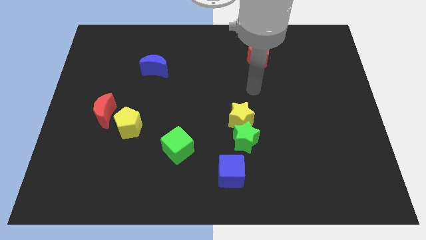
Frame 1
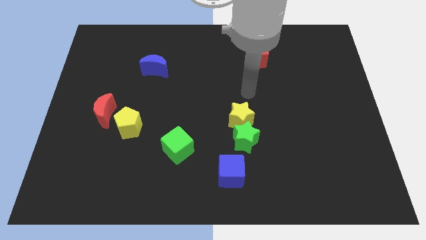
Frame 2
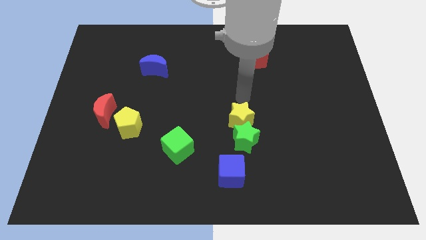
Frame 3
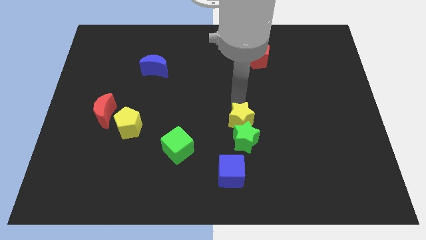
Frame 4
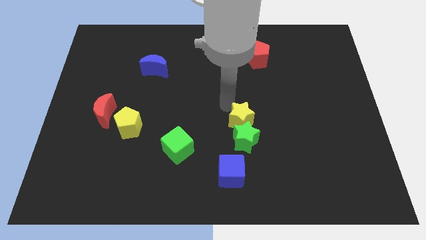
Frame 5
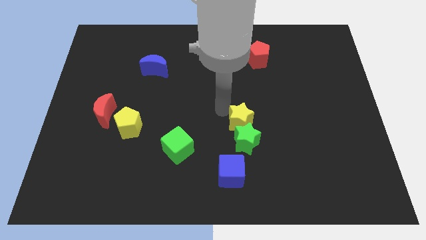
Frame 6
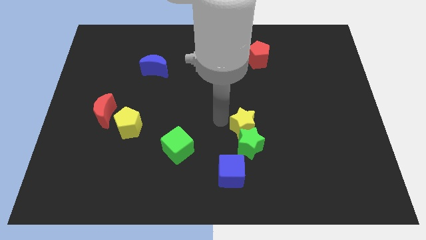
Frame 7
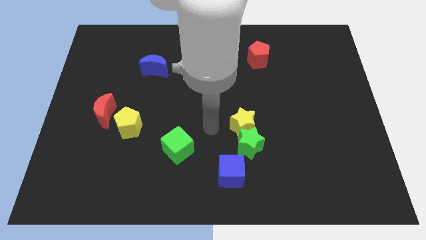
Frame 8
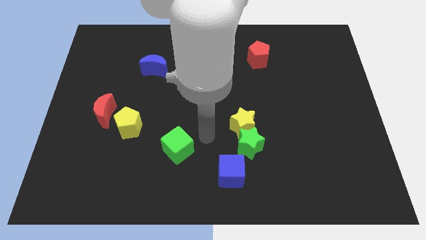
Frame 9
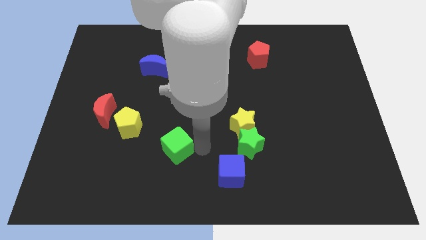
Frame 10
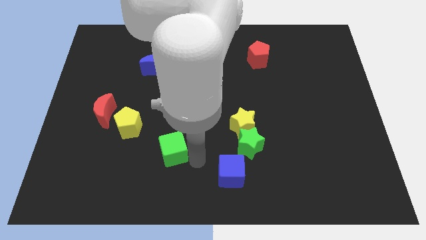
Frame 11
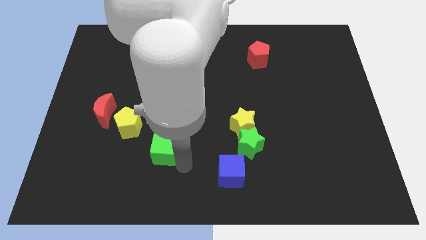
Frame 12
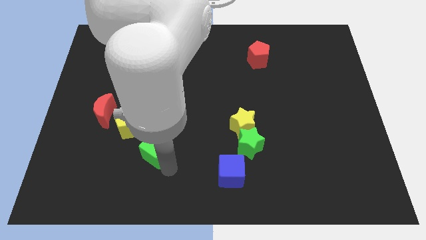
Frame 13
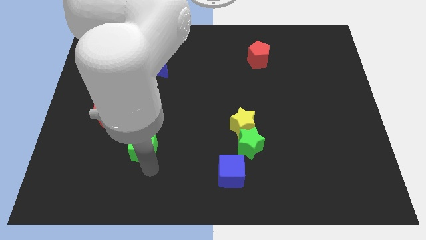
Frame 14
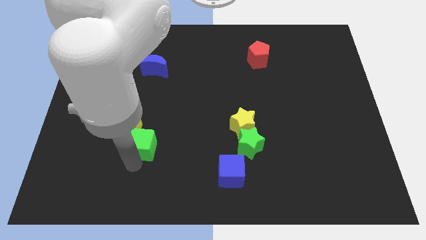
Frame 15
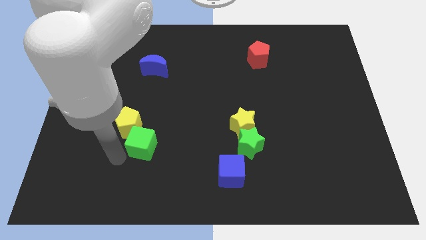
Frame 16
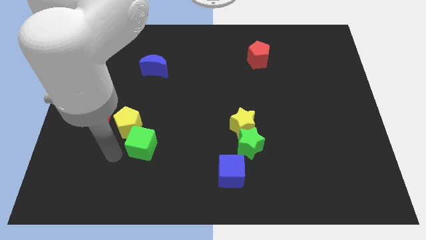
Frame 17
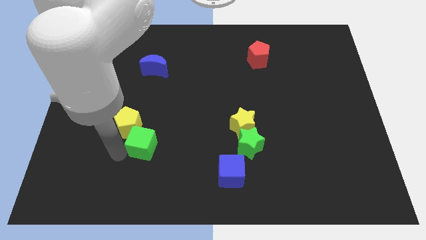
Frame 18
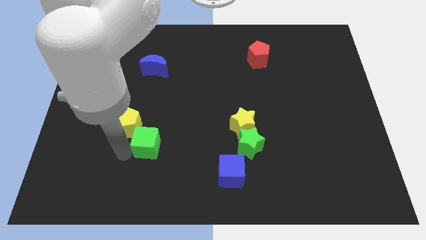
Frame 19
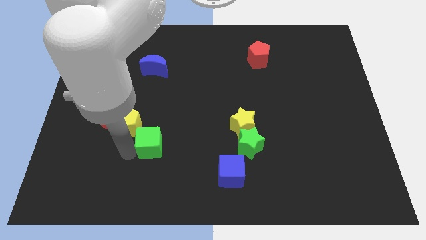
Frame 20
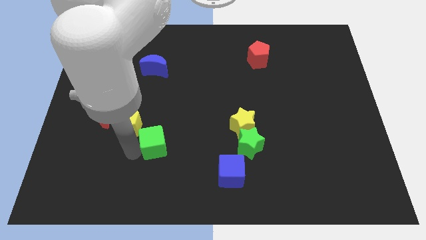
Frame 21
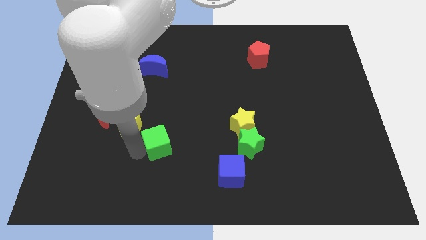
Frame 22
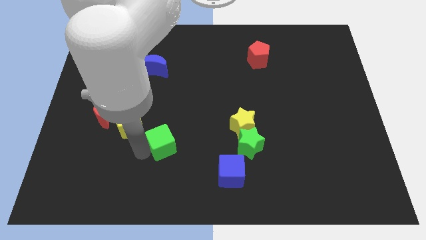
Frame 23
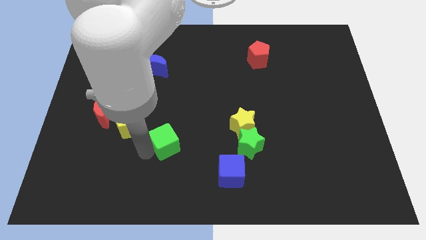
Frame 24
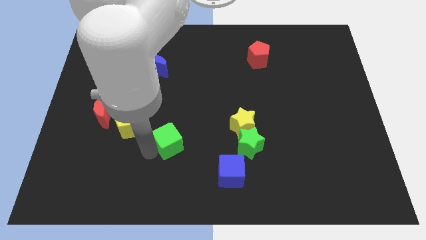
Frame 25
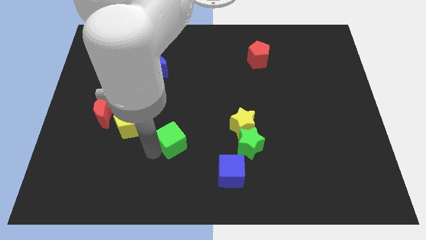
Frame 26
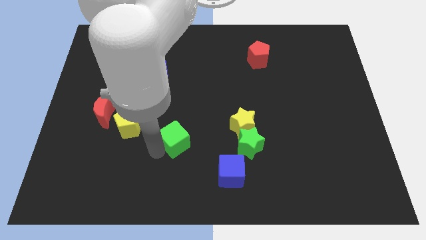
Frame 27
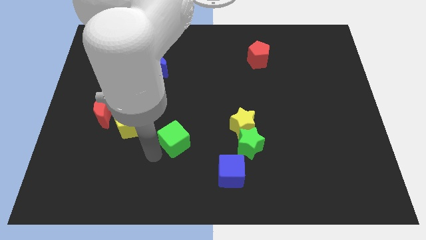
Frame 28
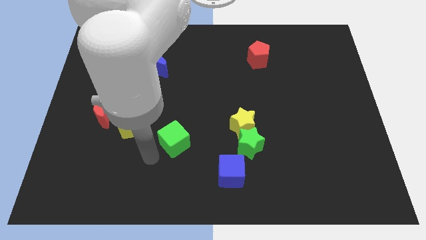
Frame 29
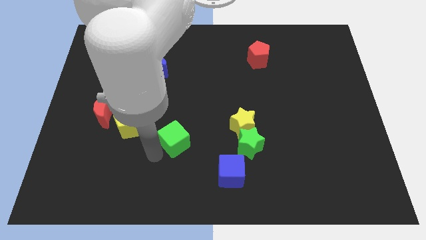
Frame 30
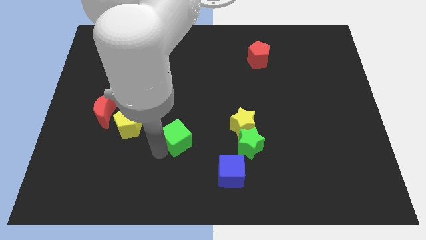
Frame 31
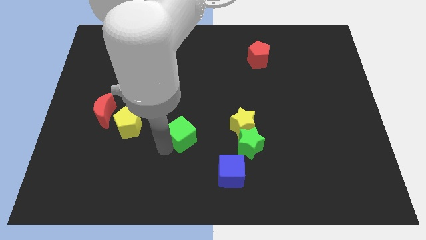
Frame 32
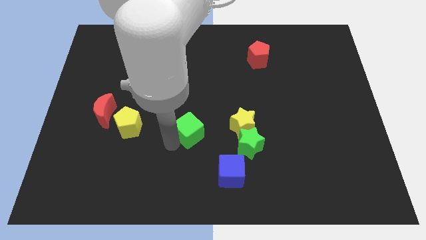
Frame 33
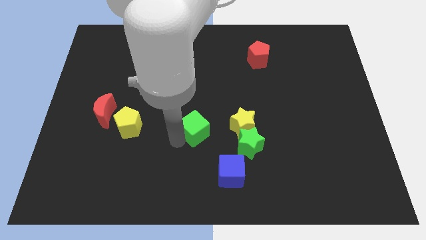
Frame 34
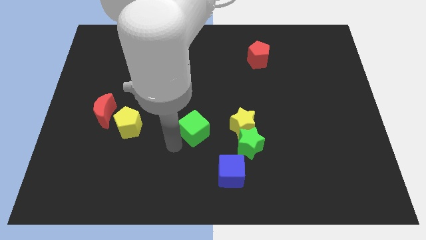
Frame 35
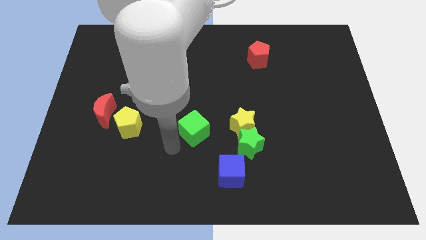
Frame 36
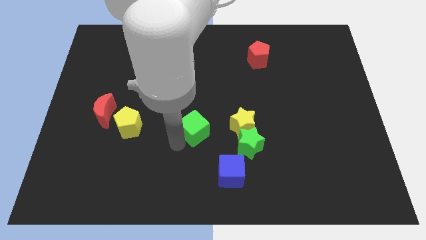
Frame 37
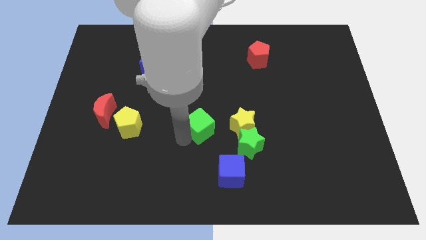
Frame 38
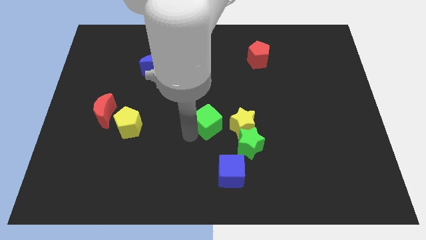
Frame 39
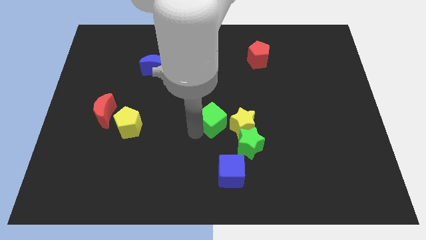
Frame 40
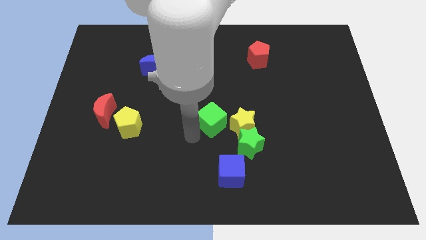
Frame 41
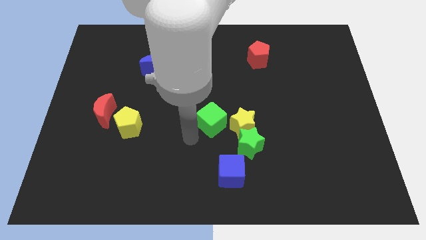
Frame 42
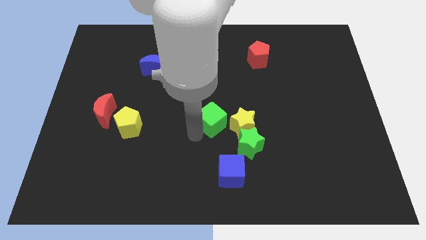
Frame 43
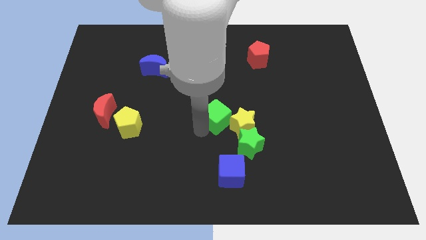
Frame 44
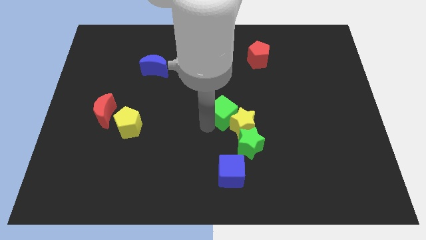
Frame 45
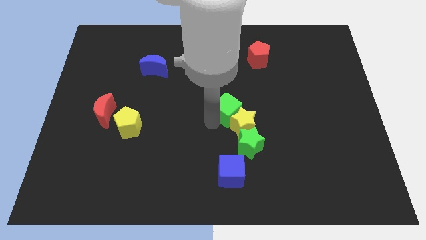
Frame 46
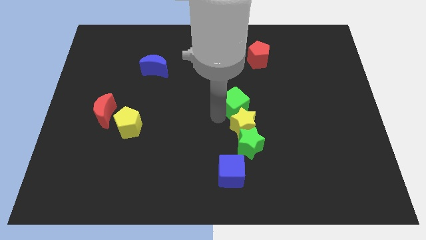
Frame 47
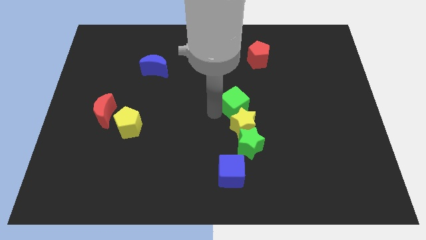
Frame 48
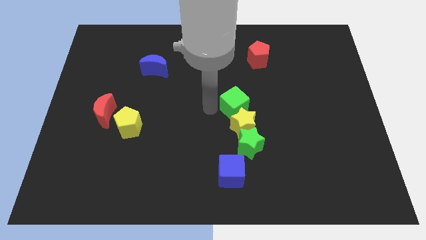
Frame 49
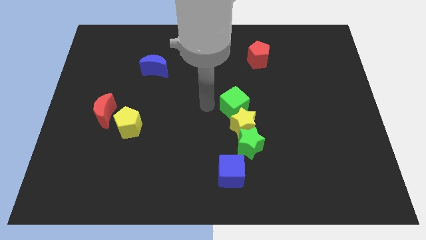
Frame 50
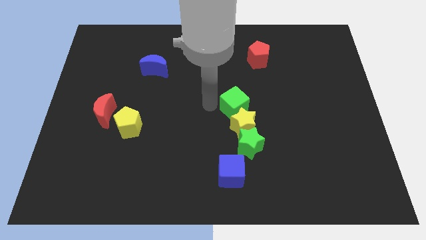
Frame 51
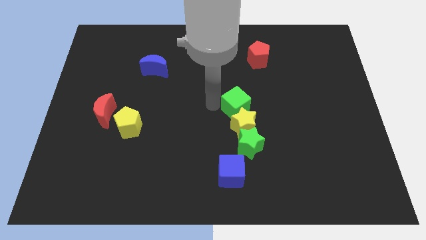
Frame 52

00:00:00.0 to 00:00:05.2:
push the green cube to the top right of the yellow star

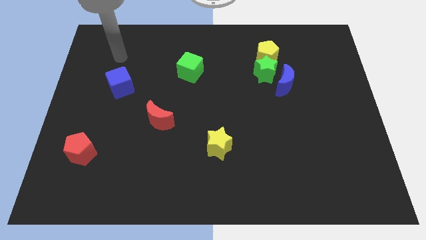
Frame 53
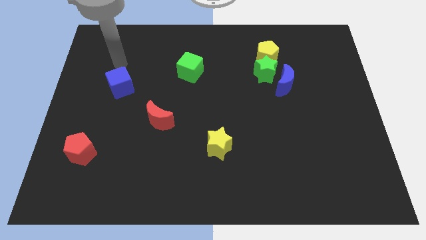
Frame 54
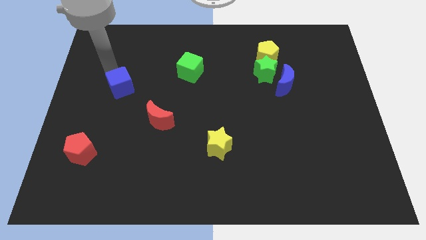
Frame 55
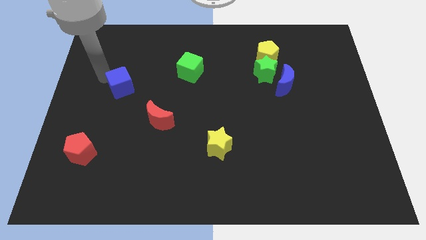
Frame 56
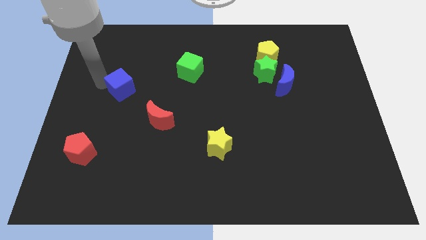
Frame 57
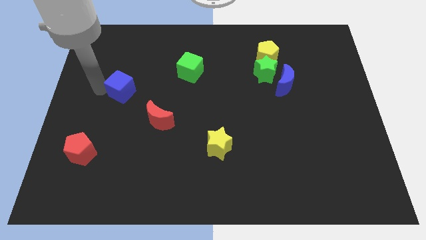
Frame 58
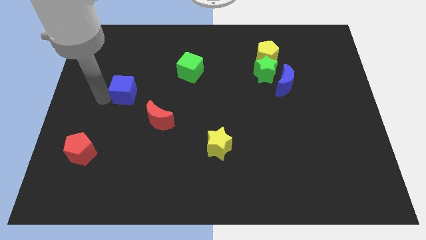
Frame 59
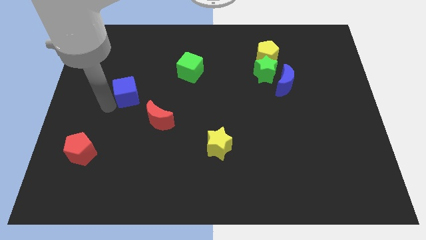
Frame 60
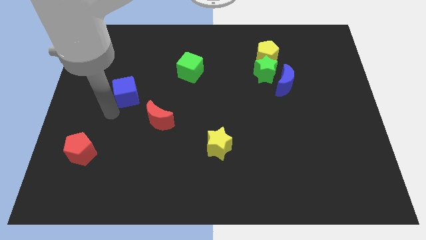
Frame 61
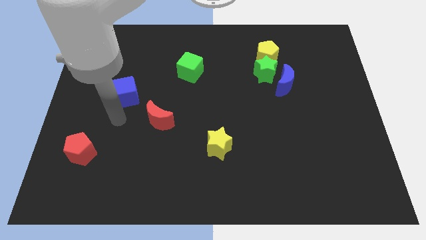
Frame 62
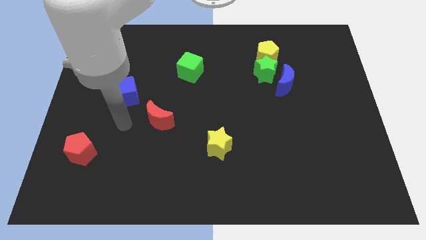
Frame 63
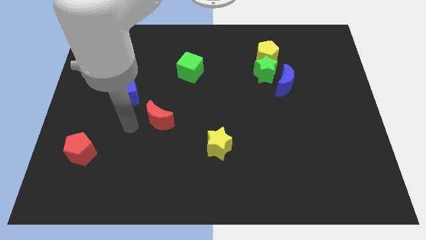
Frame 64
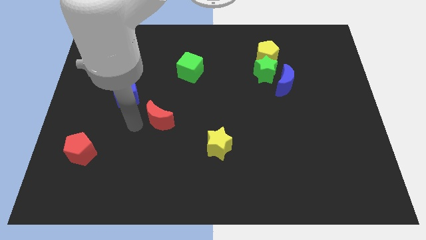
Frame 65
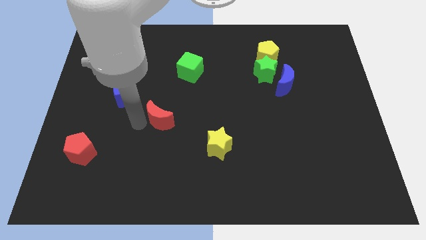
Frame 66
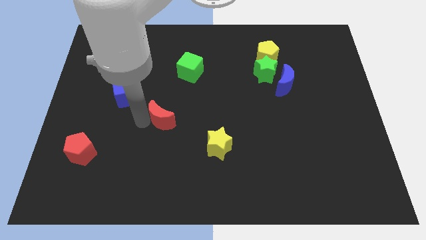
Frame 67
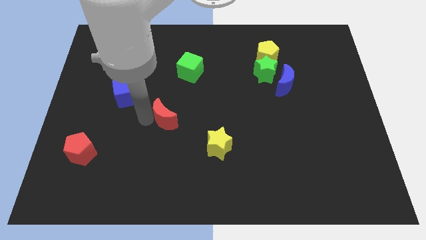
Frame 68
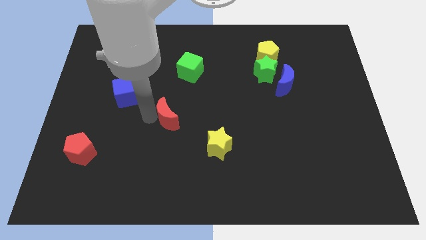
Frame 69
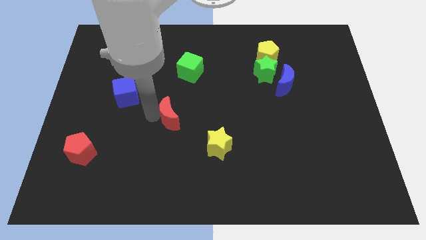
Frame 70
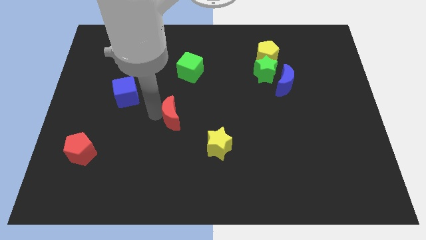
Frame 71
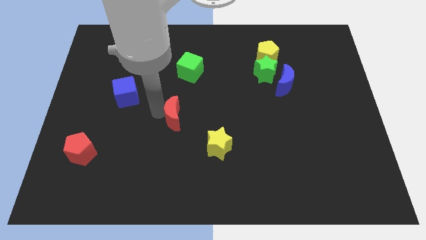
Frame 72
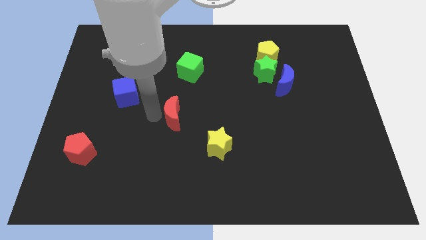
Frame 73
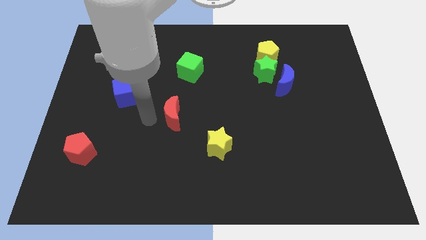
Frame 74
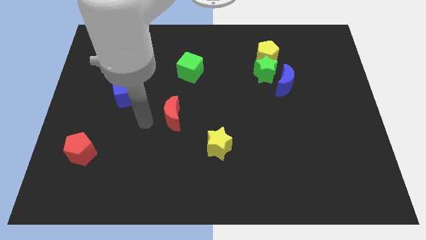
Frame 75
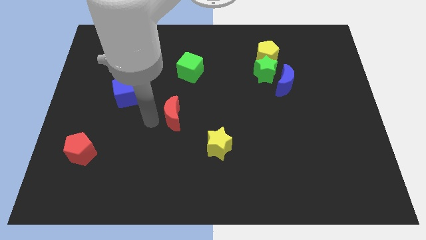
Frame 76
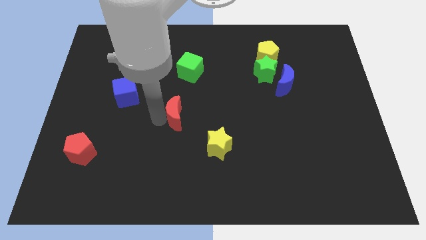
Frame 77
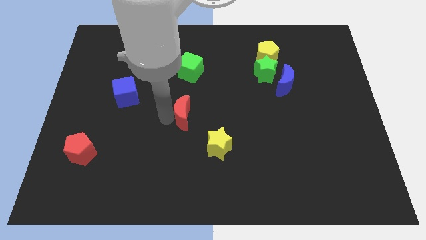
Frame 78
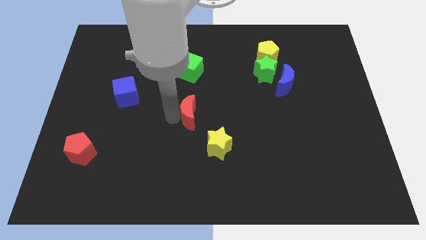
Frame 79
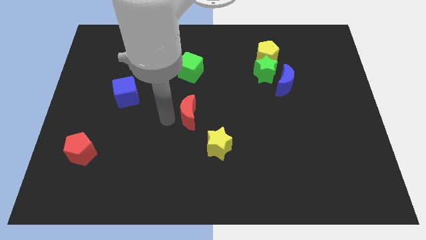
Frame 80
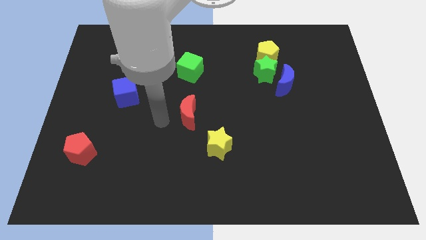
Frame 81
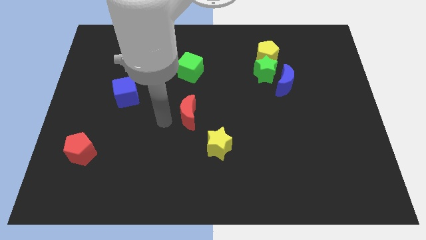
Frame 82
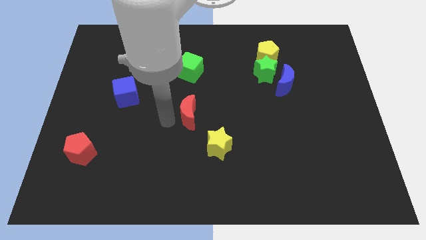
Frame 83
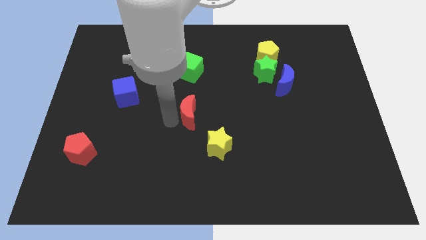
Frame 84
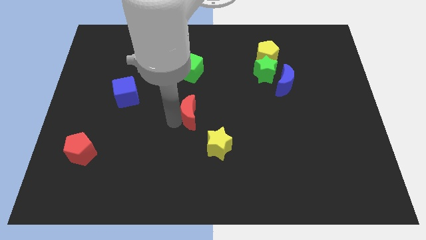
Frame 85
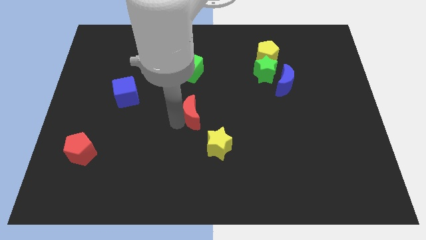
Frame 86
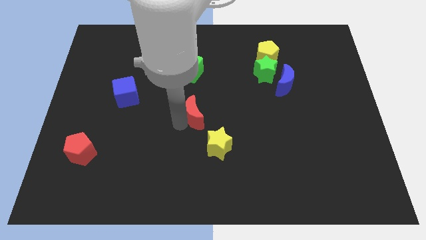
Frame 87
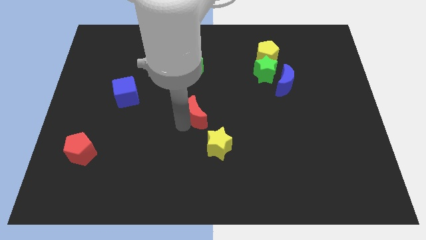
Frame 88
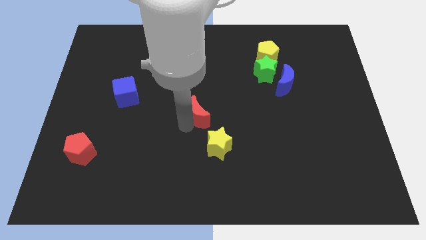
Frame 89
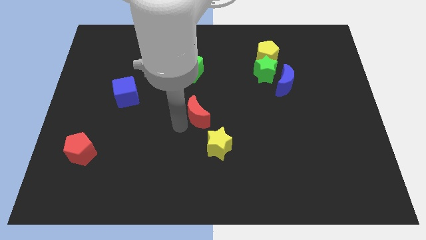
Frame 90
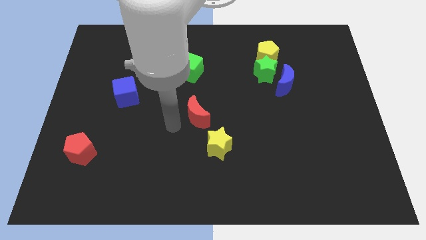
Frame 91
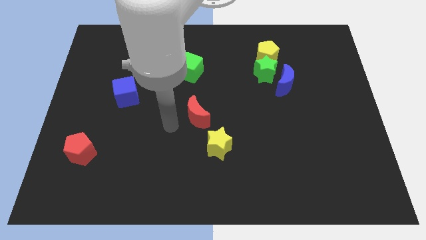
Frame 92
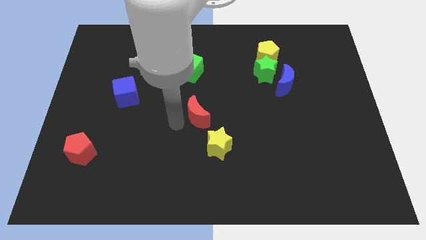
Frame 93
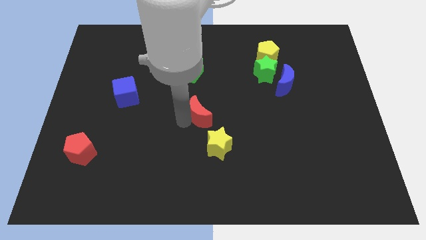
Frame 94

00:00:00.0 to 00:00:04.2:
slide the red moon to the top of the yellow star
